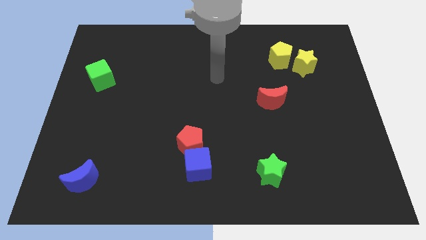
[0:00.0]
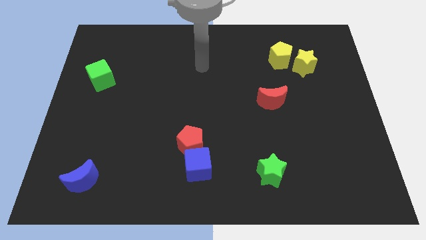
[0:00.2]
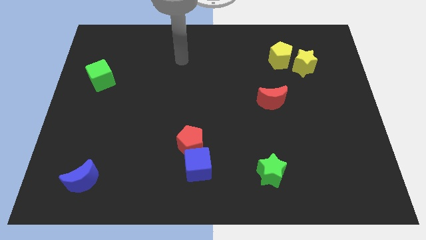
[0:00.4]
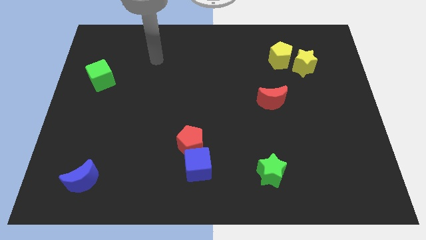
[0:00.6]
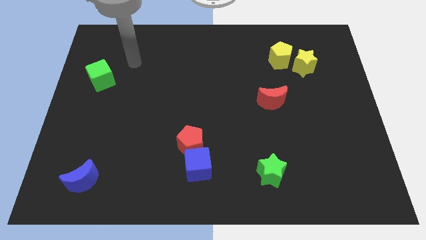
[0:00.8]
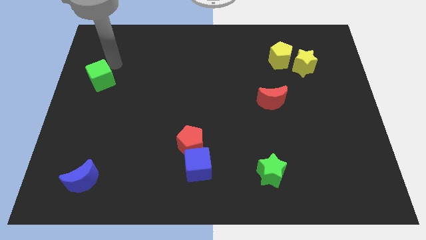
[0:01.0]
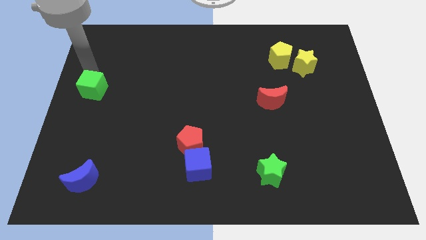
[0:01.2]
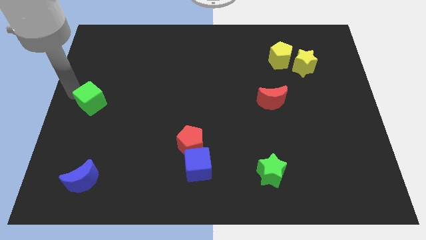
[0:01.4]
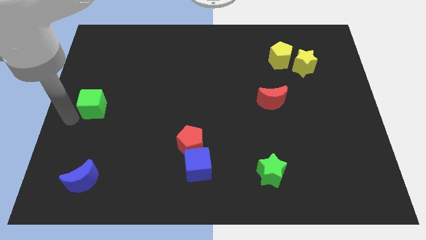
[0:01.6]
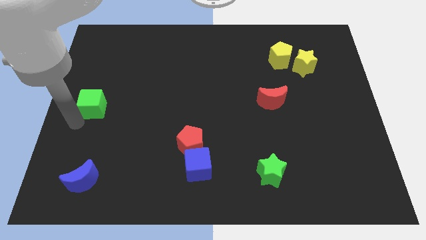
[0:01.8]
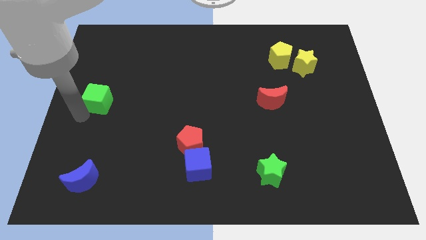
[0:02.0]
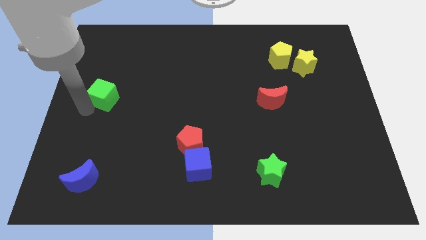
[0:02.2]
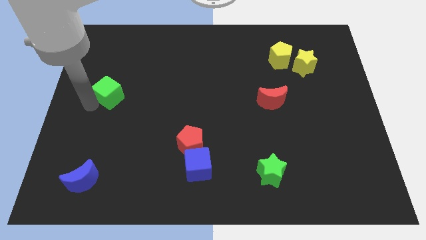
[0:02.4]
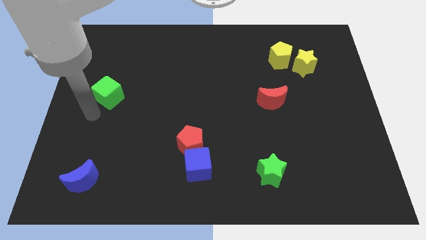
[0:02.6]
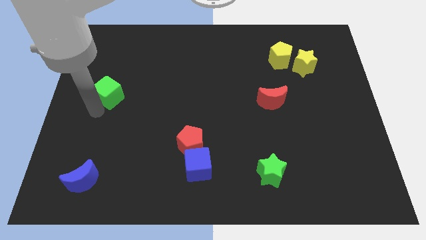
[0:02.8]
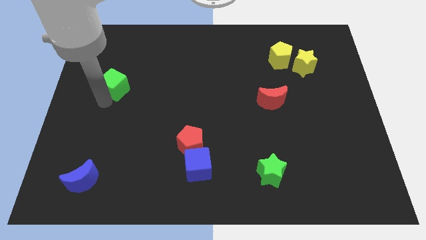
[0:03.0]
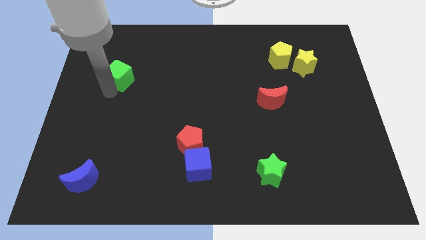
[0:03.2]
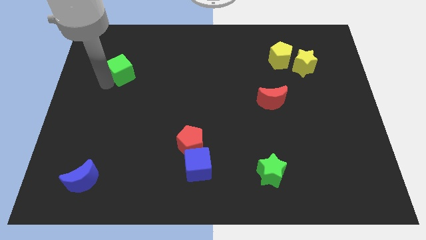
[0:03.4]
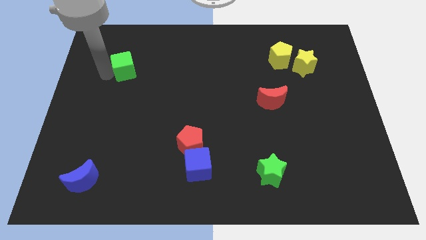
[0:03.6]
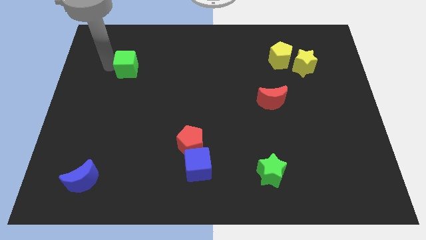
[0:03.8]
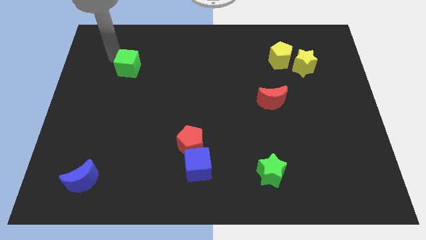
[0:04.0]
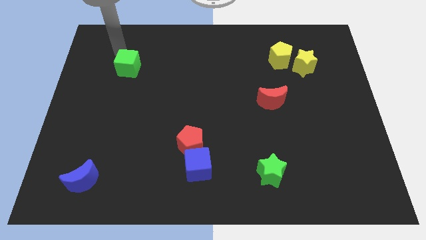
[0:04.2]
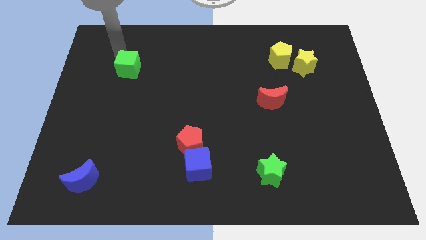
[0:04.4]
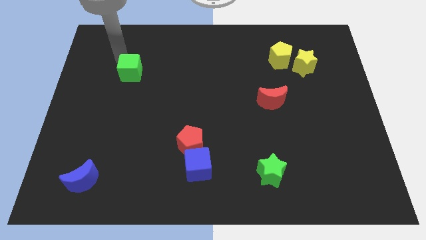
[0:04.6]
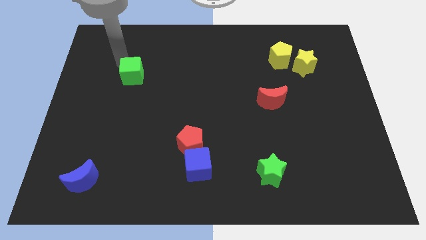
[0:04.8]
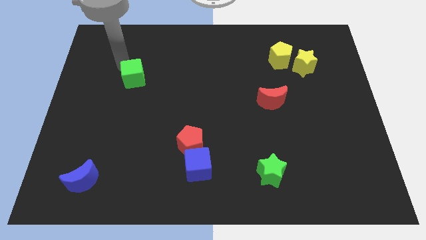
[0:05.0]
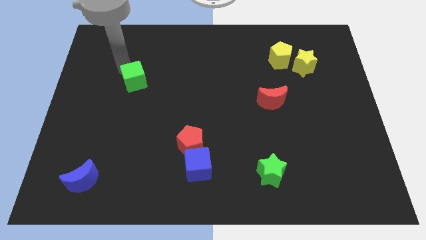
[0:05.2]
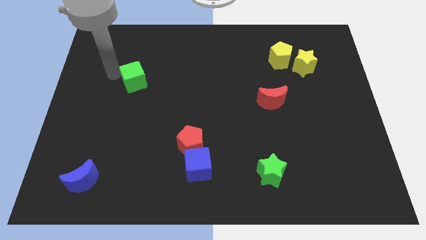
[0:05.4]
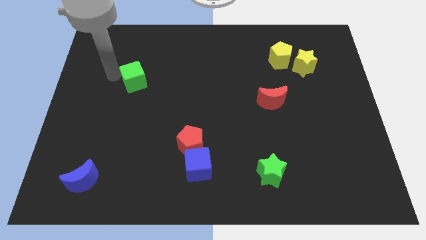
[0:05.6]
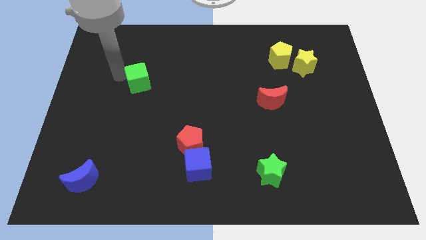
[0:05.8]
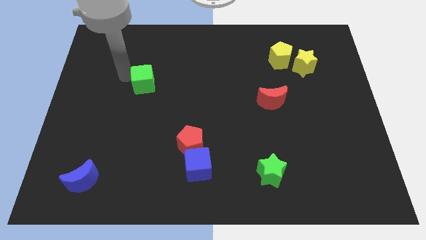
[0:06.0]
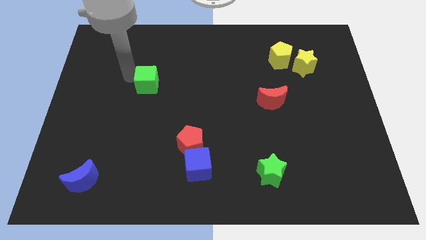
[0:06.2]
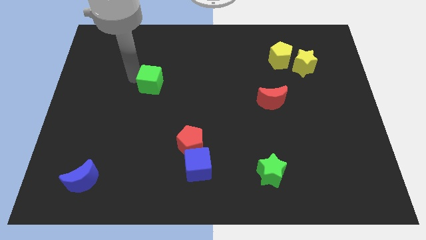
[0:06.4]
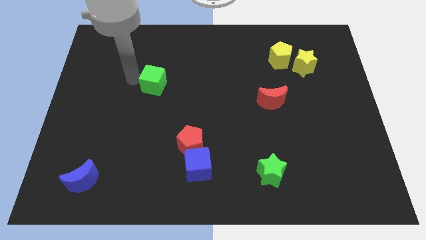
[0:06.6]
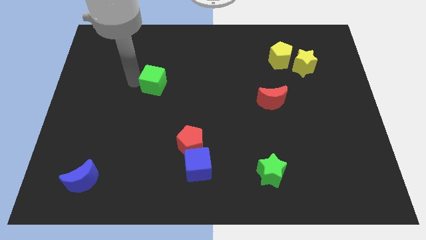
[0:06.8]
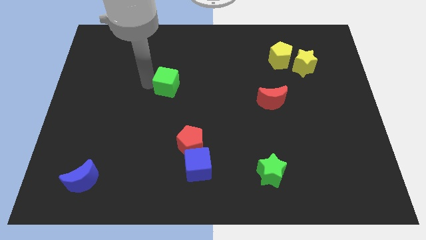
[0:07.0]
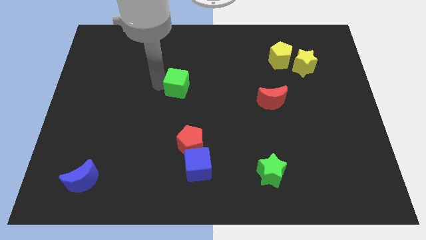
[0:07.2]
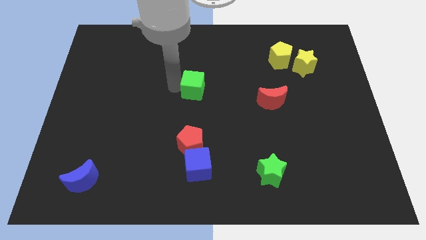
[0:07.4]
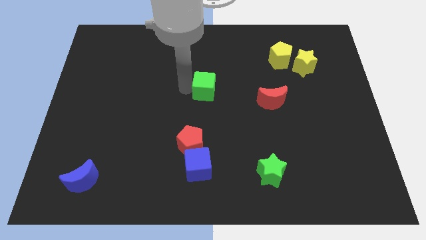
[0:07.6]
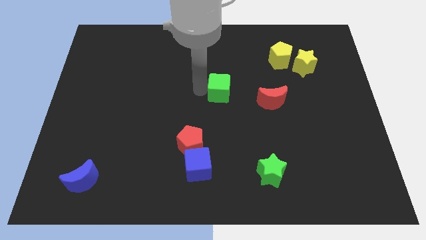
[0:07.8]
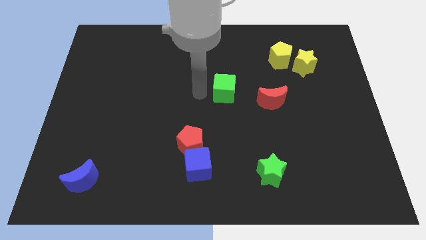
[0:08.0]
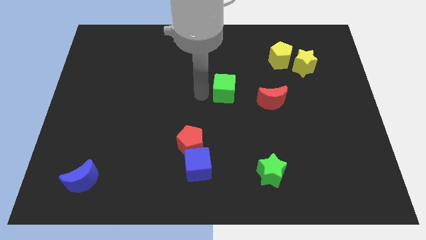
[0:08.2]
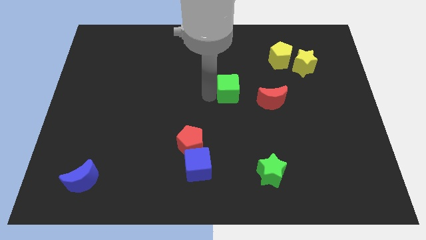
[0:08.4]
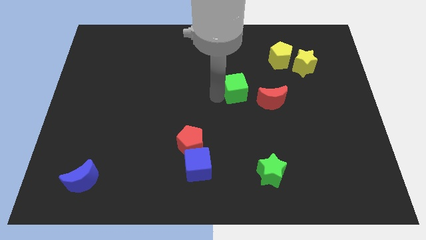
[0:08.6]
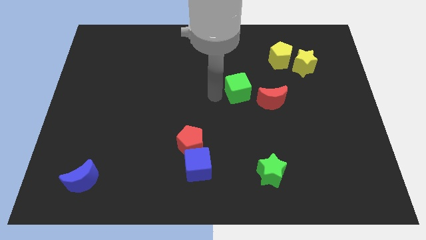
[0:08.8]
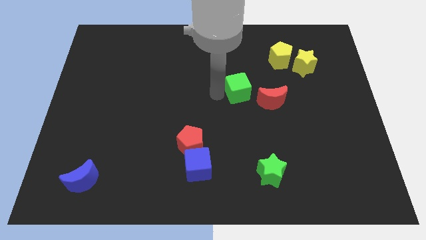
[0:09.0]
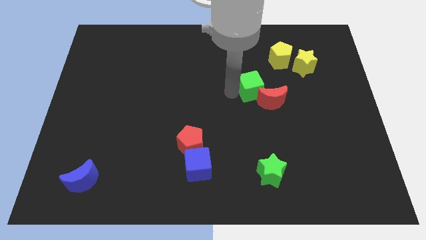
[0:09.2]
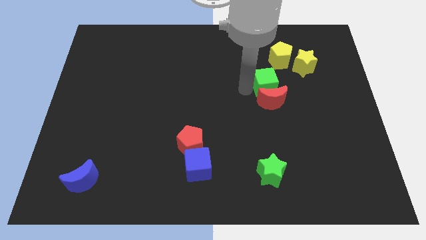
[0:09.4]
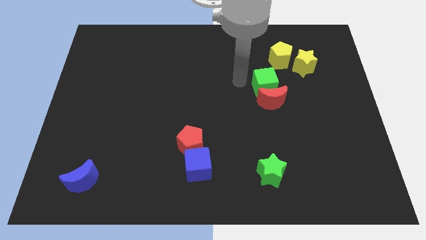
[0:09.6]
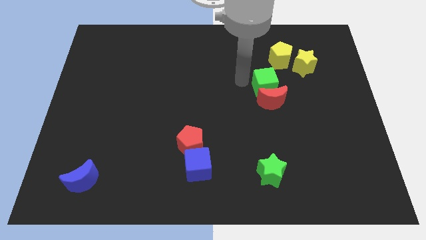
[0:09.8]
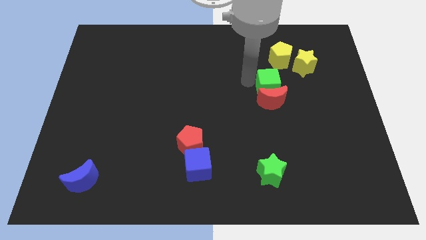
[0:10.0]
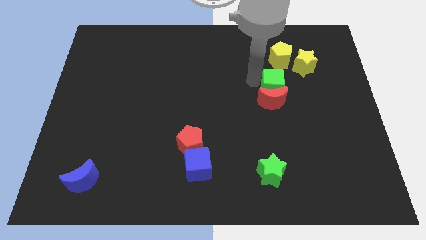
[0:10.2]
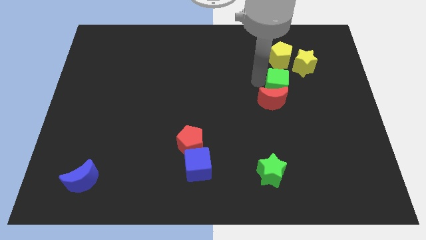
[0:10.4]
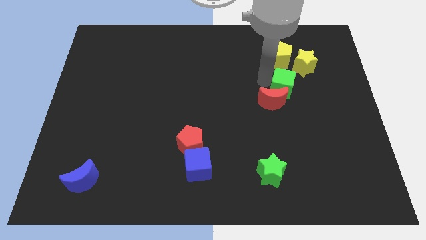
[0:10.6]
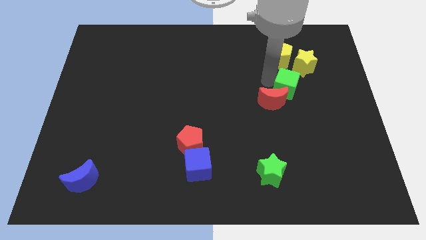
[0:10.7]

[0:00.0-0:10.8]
slide the green cube right of the red moon

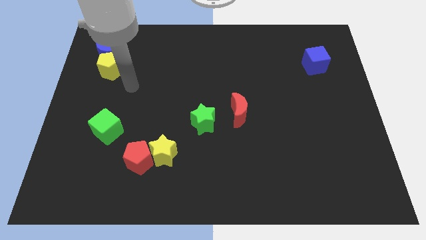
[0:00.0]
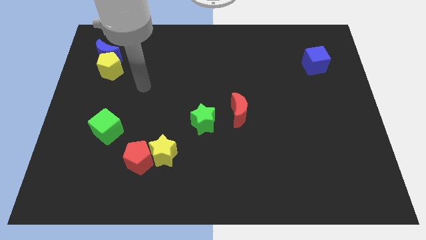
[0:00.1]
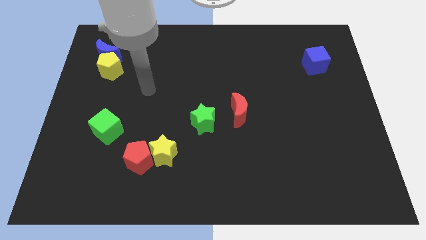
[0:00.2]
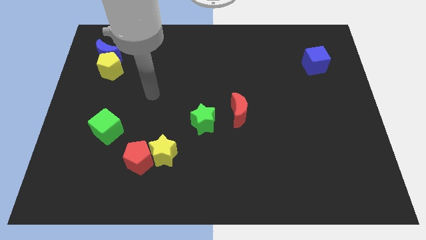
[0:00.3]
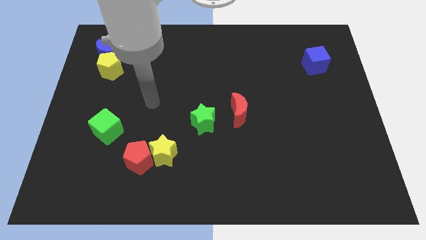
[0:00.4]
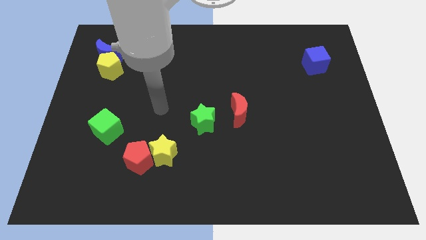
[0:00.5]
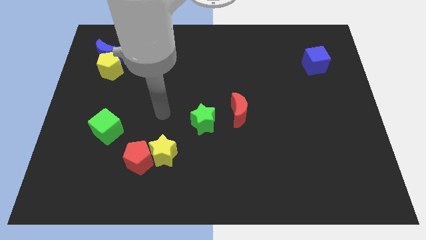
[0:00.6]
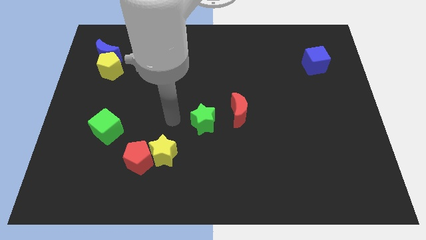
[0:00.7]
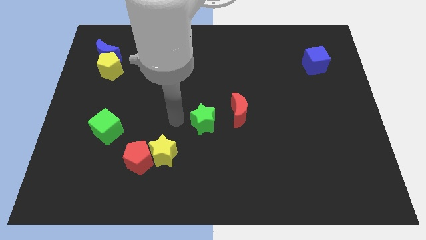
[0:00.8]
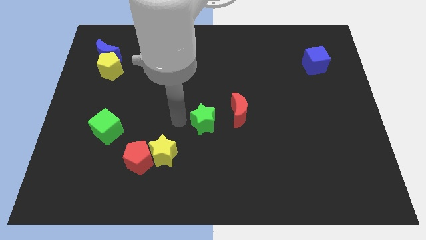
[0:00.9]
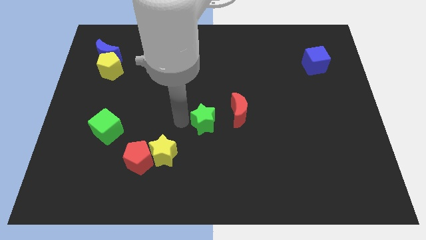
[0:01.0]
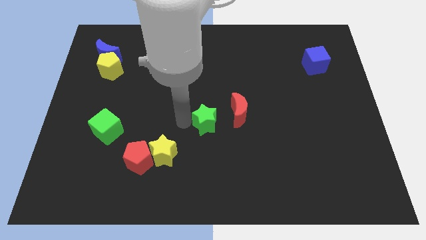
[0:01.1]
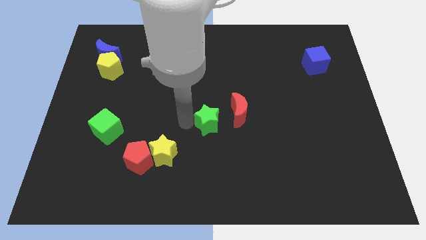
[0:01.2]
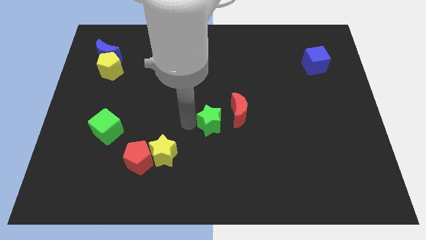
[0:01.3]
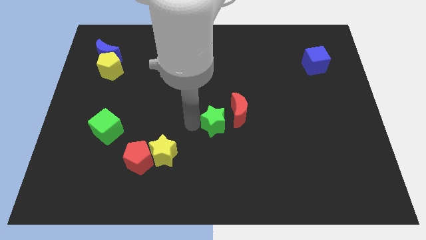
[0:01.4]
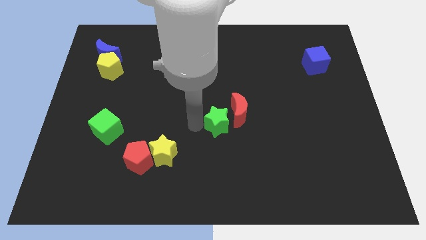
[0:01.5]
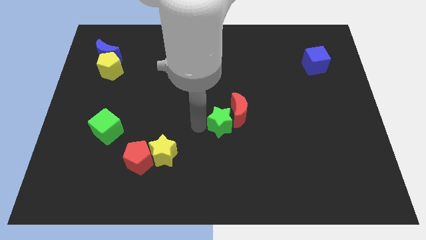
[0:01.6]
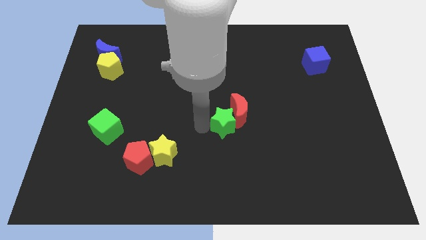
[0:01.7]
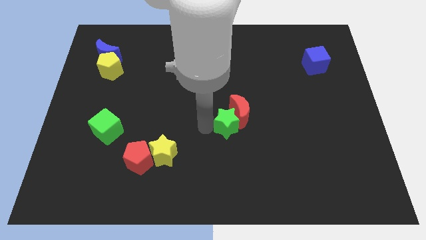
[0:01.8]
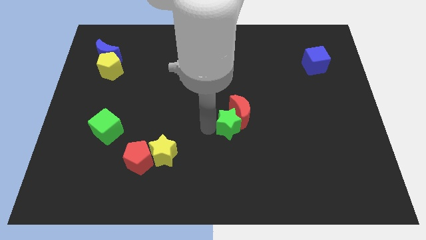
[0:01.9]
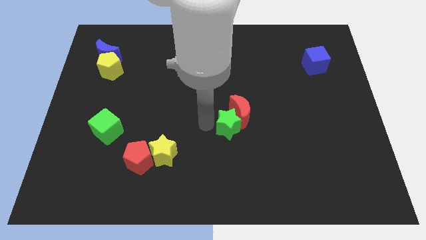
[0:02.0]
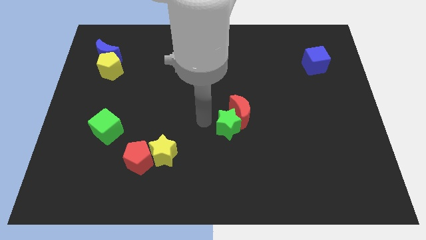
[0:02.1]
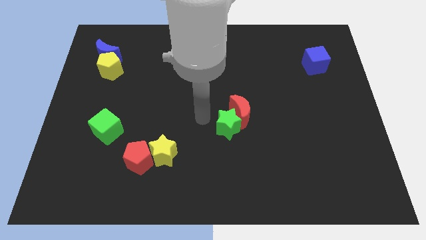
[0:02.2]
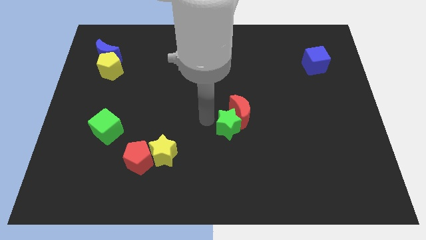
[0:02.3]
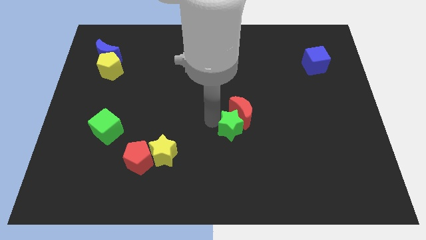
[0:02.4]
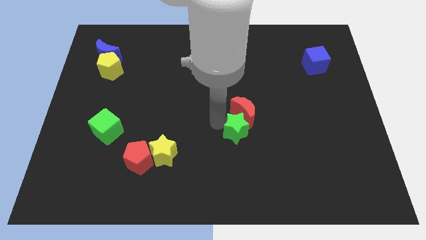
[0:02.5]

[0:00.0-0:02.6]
push the green star diagonally down and to the right of the red moon
